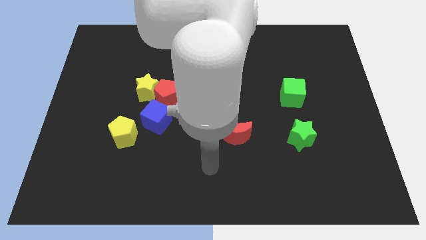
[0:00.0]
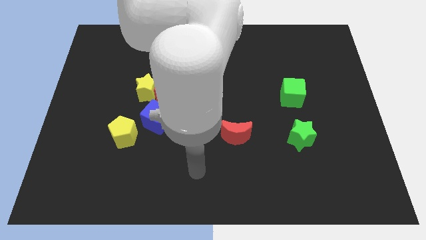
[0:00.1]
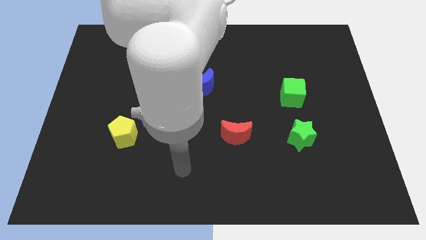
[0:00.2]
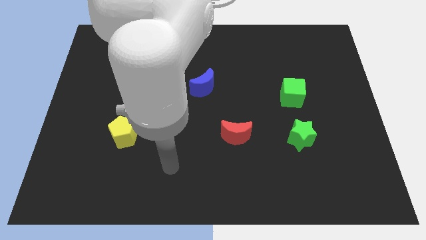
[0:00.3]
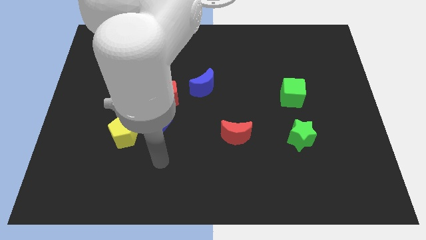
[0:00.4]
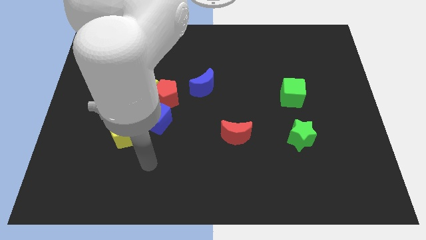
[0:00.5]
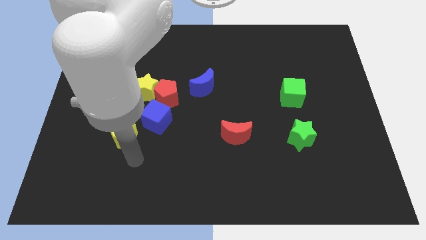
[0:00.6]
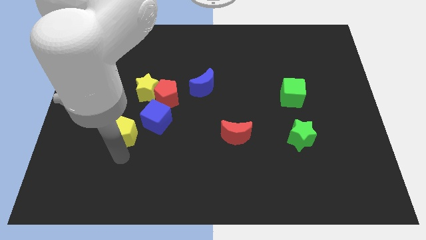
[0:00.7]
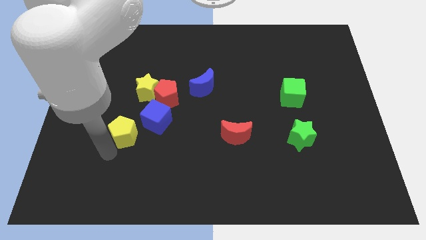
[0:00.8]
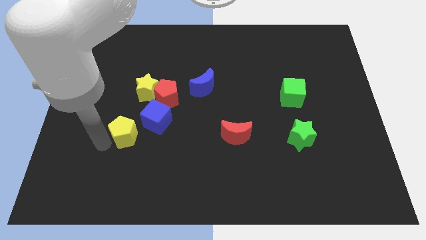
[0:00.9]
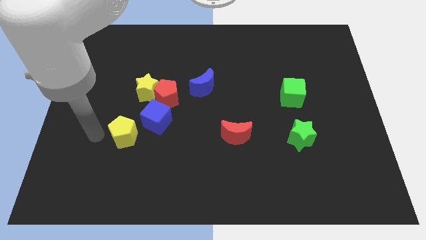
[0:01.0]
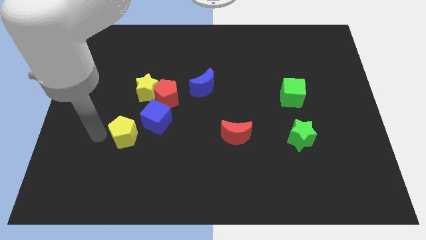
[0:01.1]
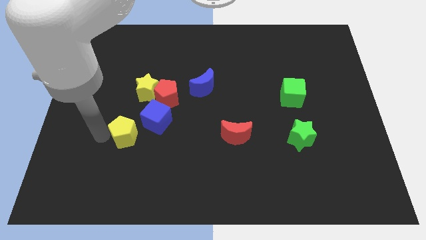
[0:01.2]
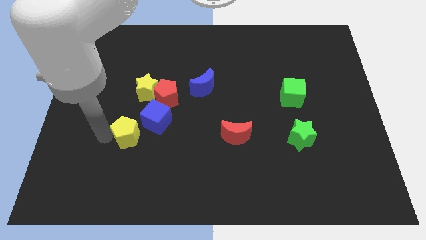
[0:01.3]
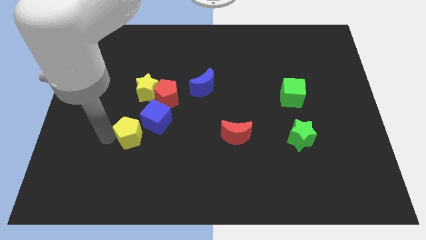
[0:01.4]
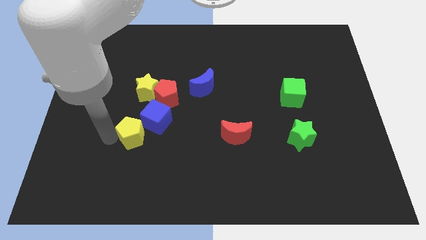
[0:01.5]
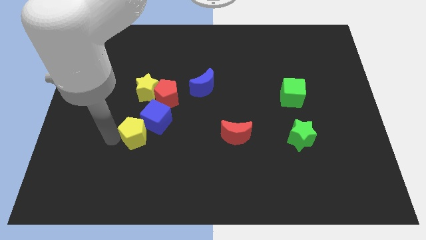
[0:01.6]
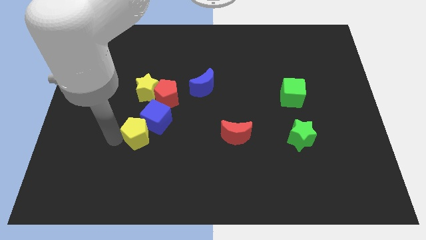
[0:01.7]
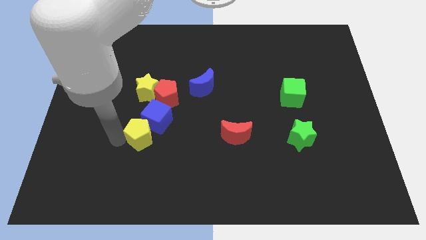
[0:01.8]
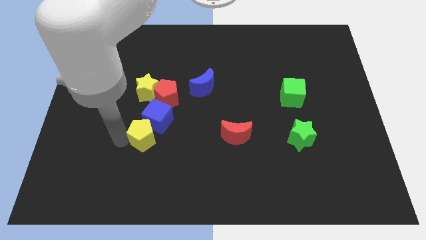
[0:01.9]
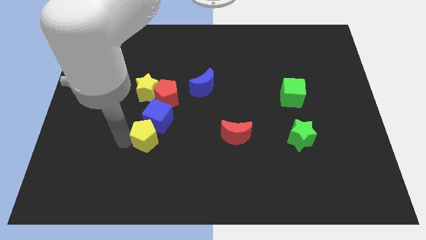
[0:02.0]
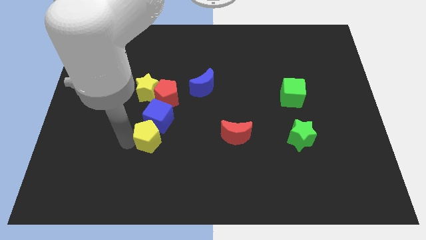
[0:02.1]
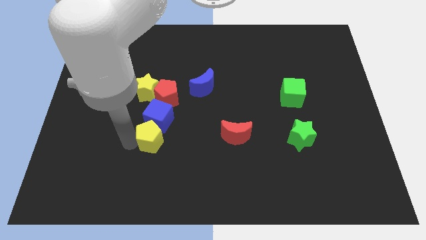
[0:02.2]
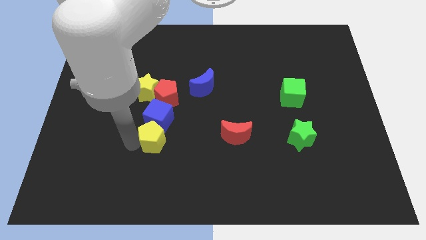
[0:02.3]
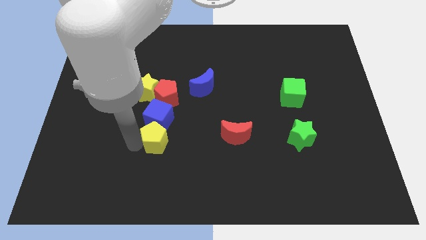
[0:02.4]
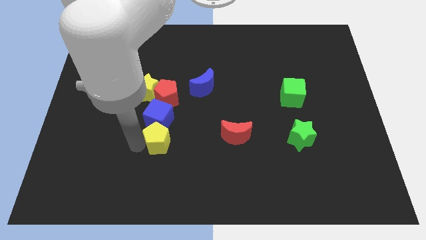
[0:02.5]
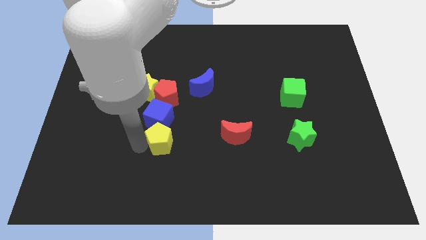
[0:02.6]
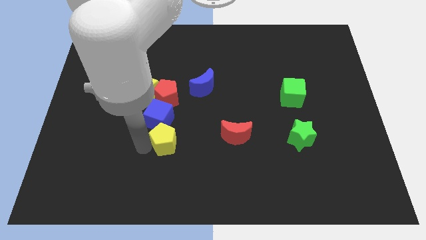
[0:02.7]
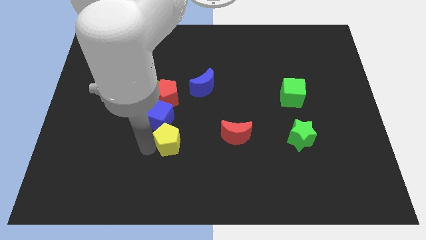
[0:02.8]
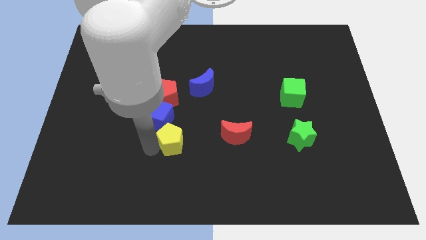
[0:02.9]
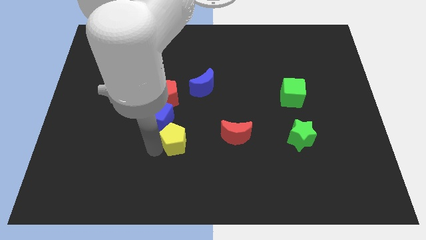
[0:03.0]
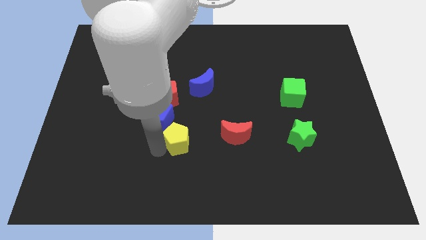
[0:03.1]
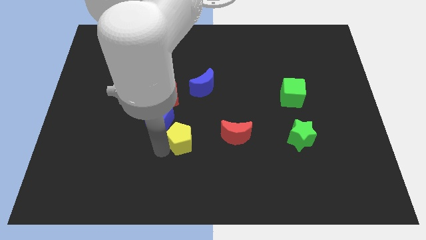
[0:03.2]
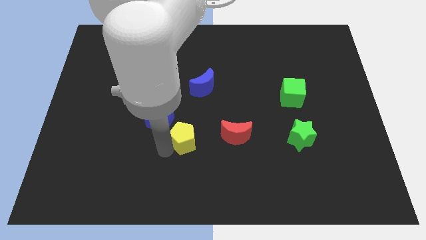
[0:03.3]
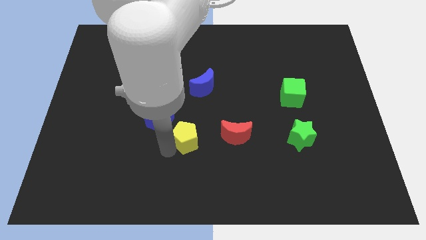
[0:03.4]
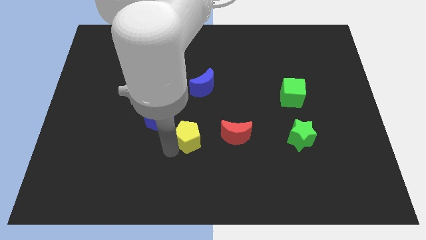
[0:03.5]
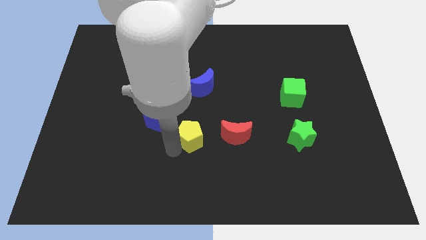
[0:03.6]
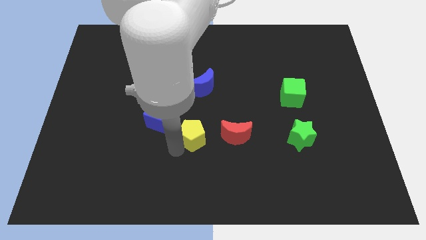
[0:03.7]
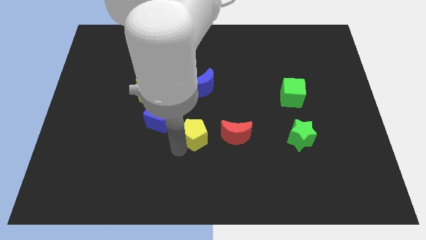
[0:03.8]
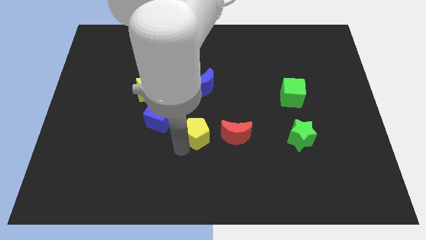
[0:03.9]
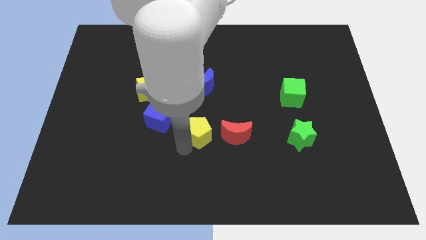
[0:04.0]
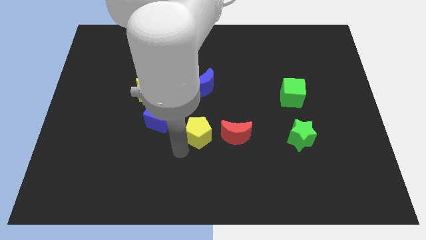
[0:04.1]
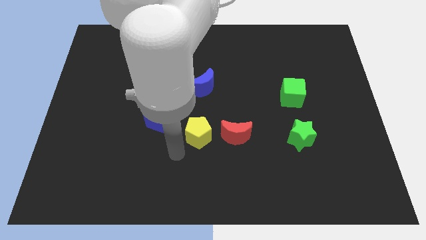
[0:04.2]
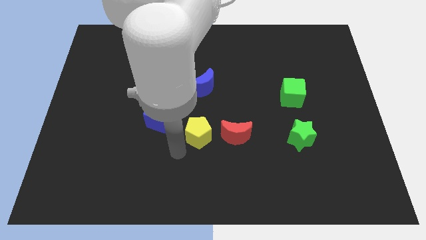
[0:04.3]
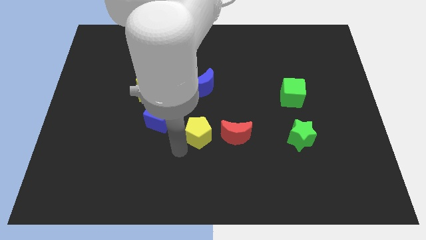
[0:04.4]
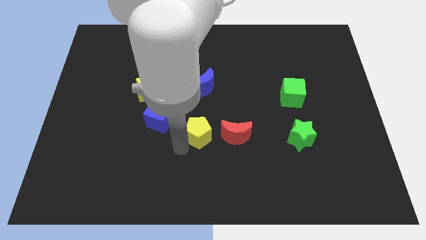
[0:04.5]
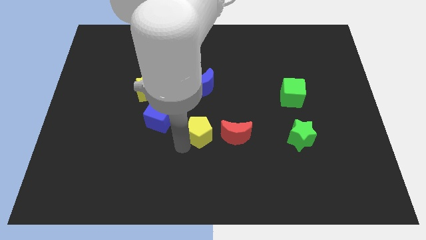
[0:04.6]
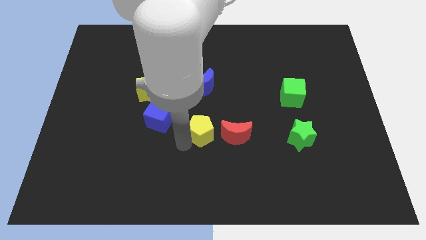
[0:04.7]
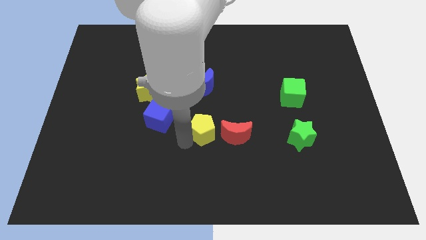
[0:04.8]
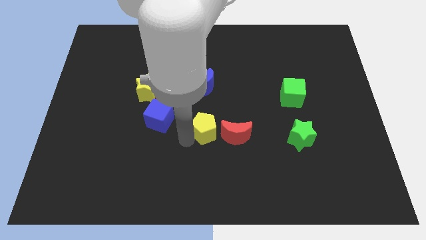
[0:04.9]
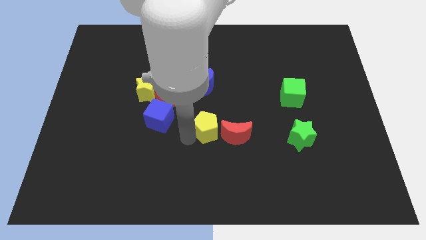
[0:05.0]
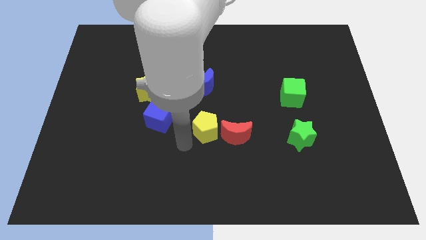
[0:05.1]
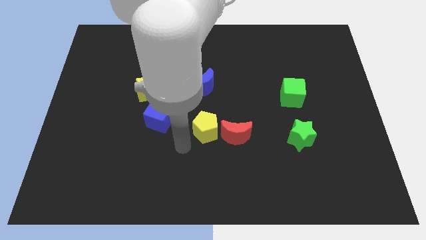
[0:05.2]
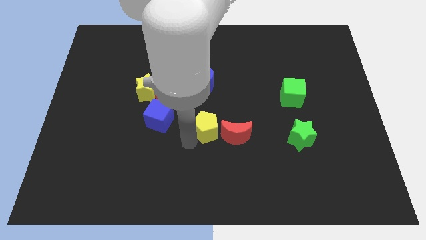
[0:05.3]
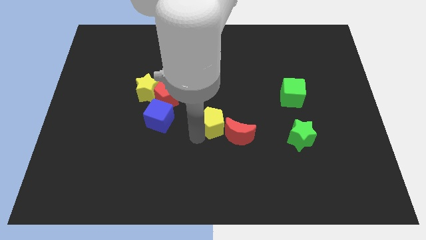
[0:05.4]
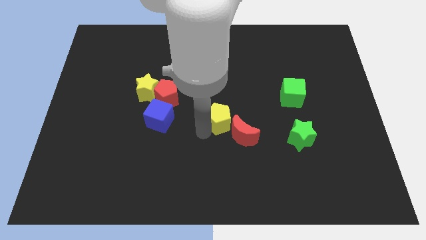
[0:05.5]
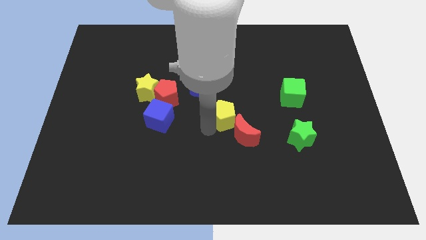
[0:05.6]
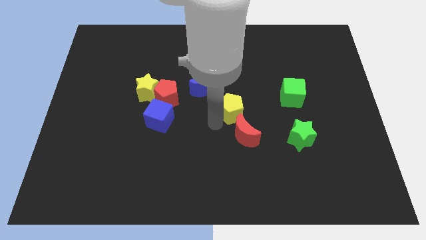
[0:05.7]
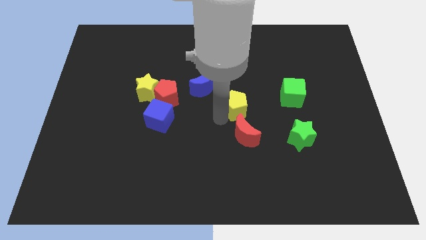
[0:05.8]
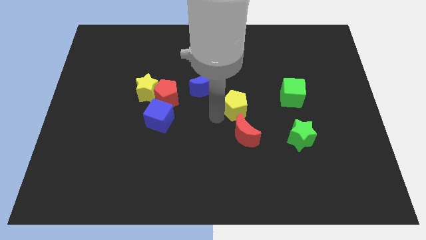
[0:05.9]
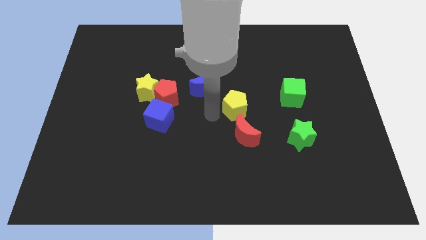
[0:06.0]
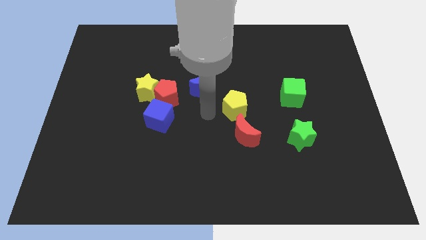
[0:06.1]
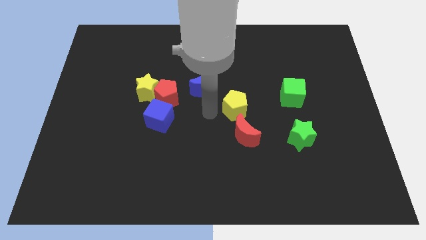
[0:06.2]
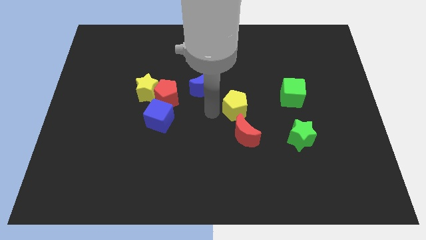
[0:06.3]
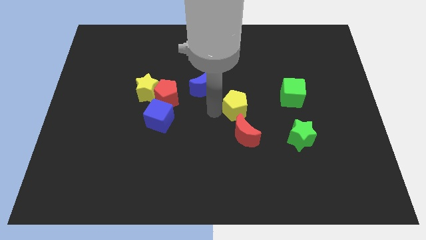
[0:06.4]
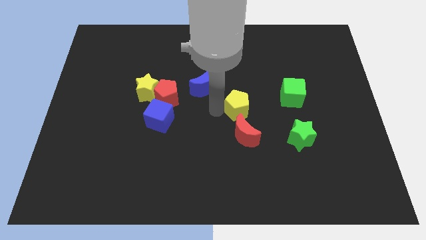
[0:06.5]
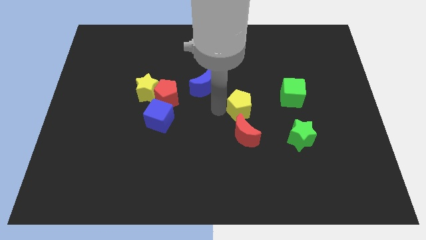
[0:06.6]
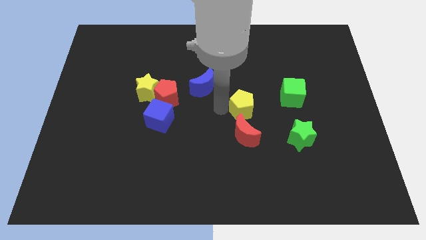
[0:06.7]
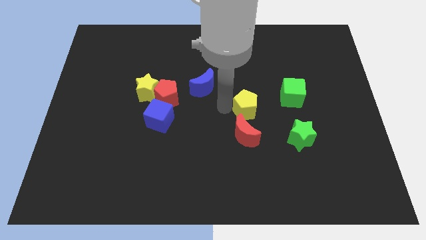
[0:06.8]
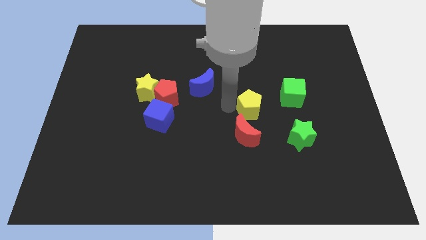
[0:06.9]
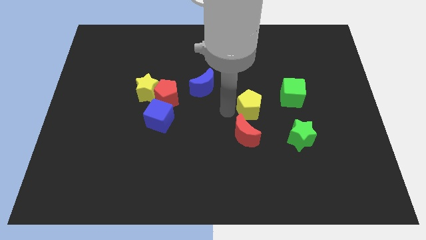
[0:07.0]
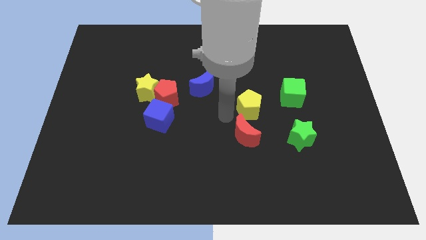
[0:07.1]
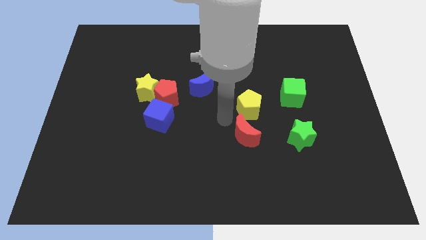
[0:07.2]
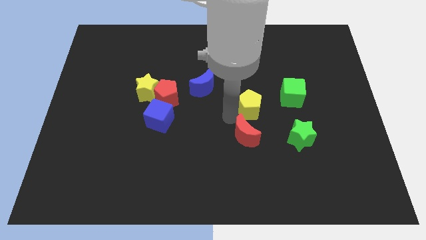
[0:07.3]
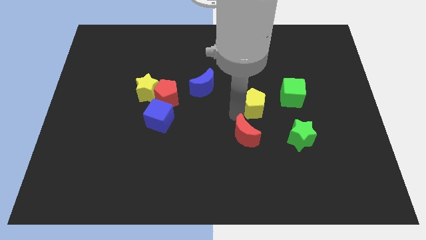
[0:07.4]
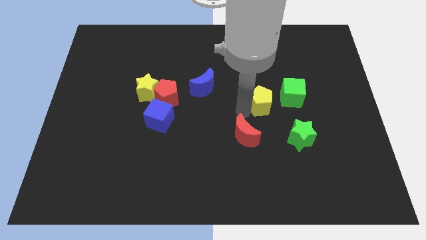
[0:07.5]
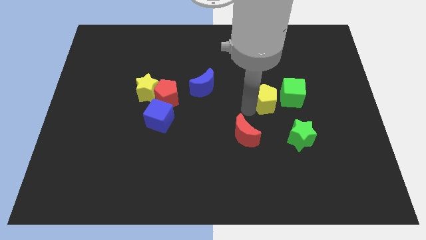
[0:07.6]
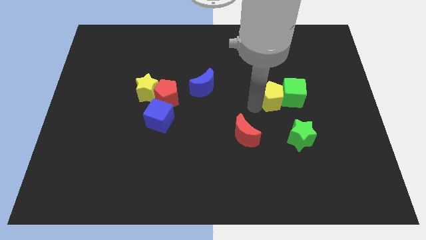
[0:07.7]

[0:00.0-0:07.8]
move the yellow pentagon to the green cube
